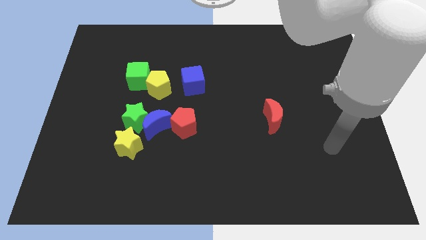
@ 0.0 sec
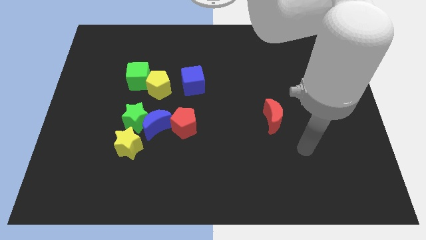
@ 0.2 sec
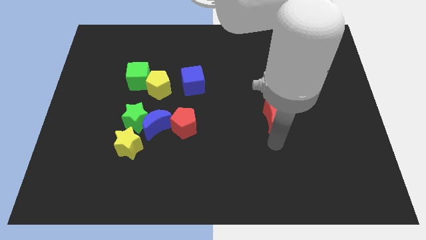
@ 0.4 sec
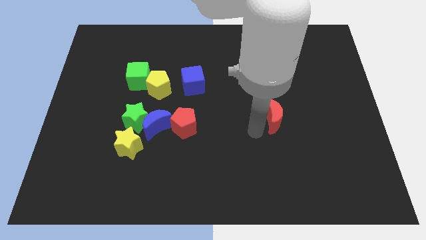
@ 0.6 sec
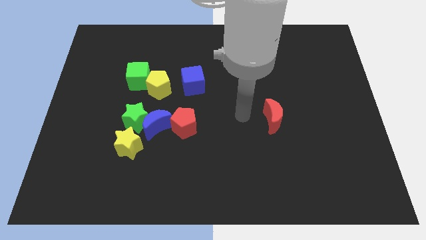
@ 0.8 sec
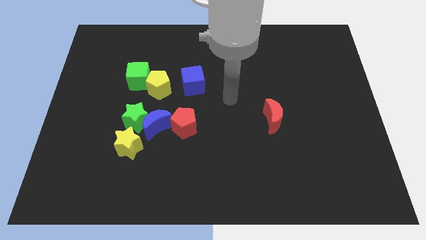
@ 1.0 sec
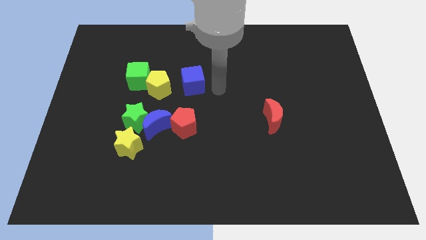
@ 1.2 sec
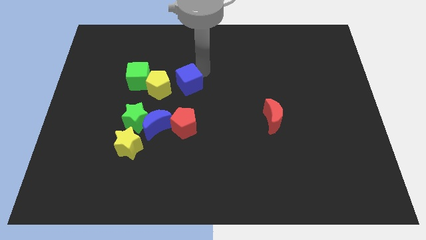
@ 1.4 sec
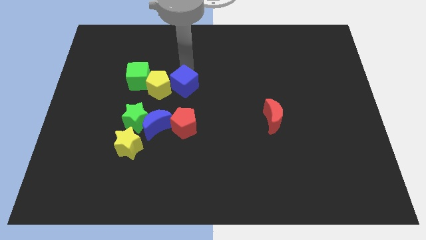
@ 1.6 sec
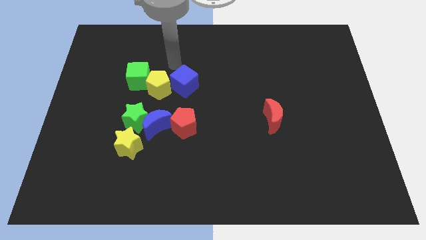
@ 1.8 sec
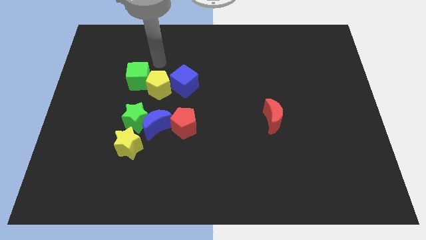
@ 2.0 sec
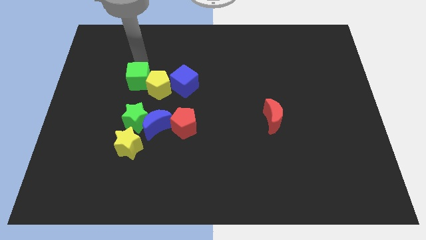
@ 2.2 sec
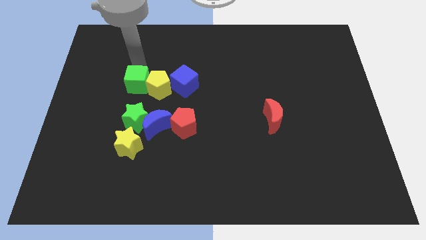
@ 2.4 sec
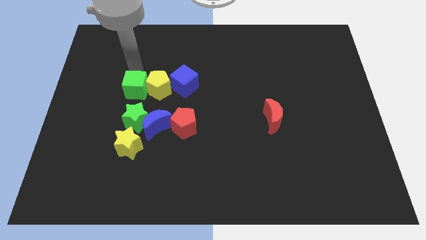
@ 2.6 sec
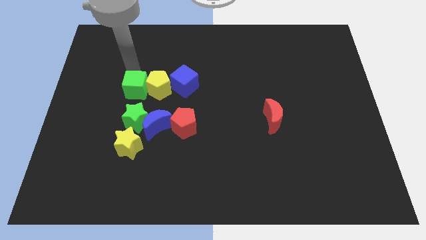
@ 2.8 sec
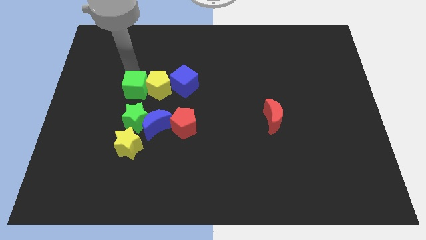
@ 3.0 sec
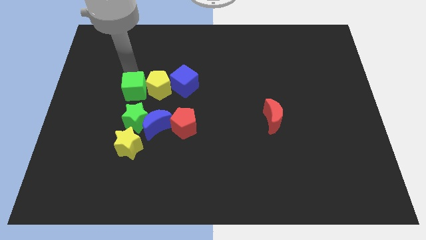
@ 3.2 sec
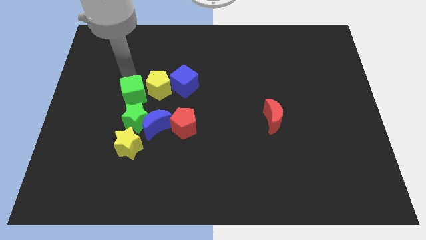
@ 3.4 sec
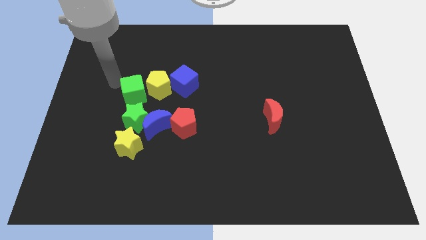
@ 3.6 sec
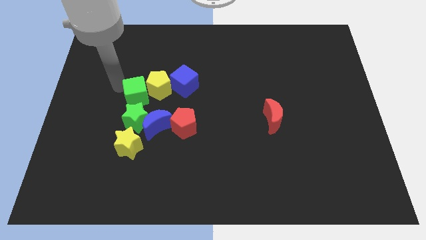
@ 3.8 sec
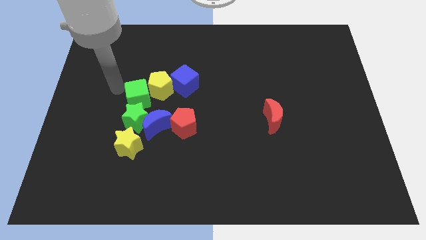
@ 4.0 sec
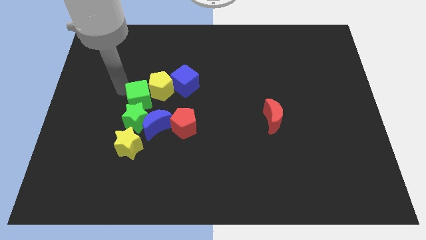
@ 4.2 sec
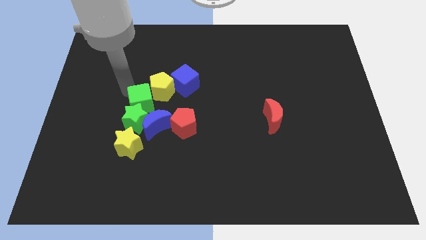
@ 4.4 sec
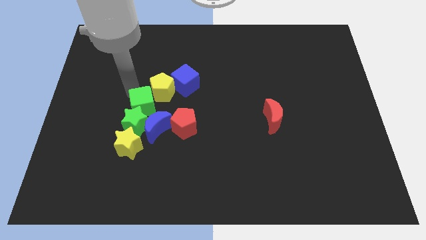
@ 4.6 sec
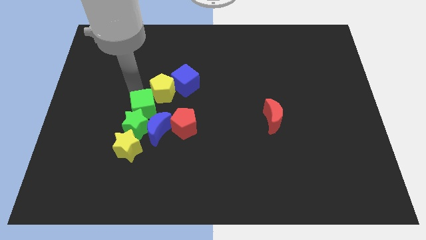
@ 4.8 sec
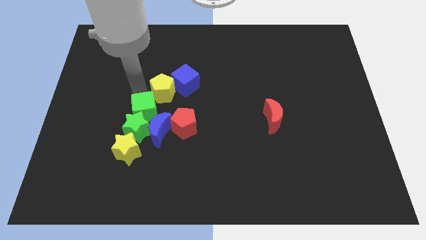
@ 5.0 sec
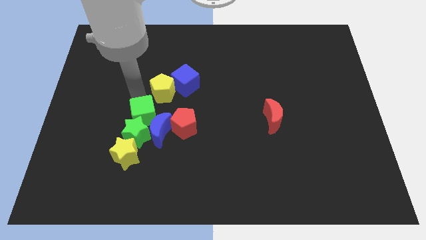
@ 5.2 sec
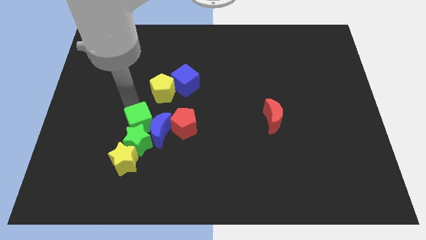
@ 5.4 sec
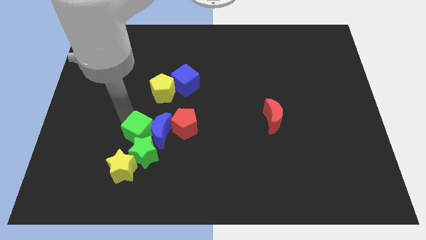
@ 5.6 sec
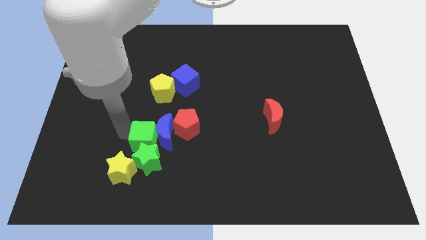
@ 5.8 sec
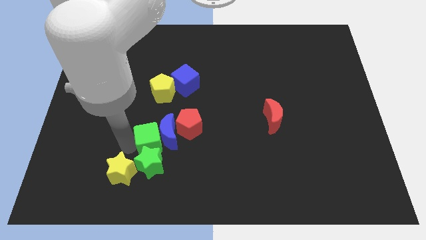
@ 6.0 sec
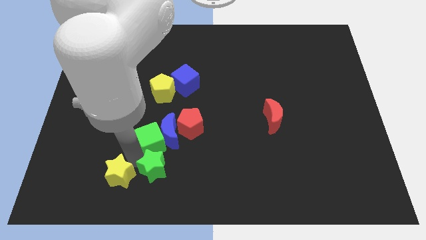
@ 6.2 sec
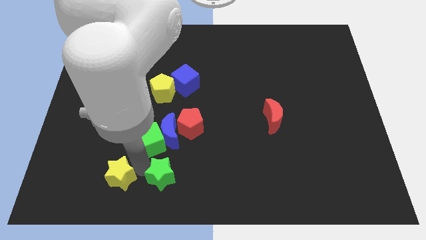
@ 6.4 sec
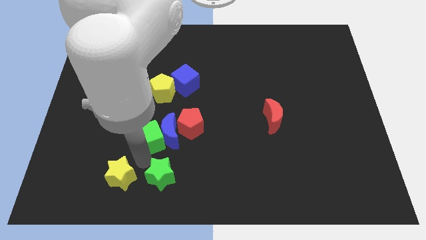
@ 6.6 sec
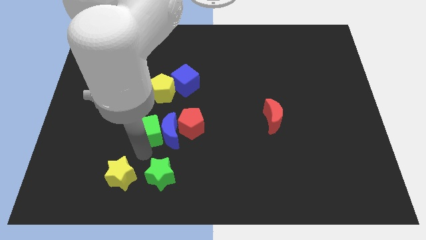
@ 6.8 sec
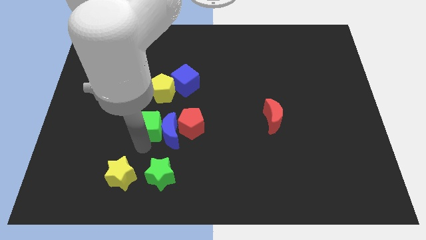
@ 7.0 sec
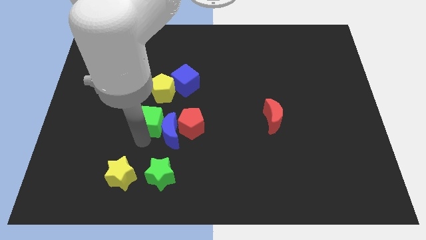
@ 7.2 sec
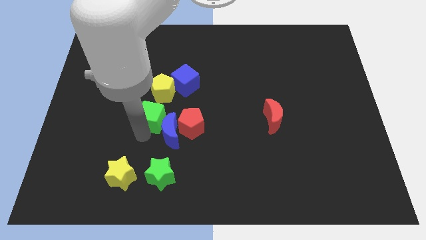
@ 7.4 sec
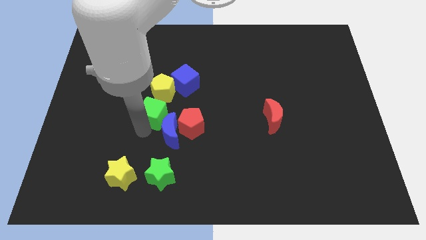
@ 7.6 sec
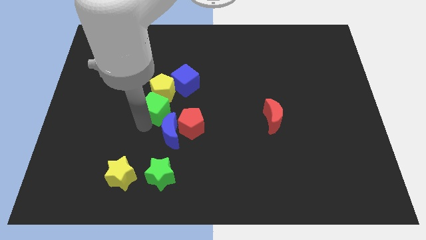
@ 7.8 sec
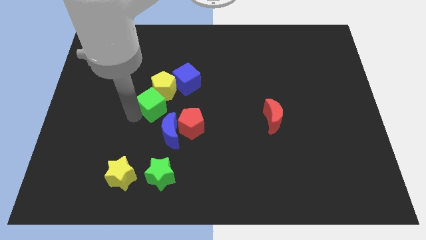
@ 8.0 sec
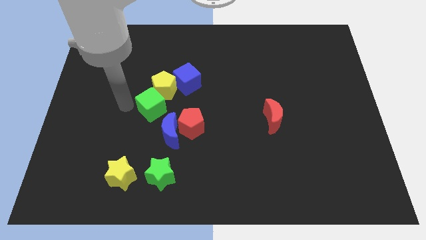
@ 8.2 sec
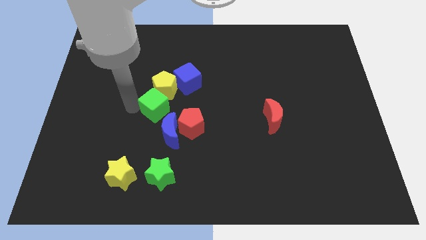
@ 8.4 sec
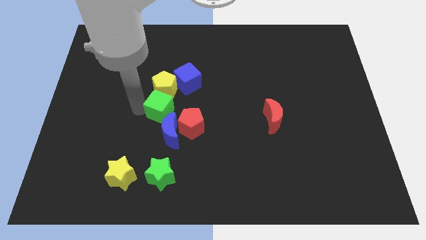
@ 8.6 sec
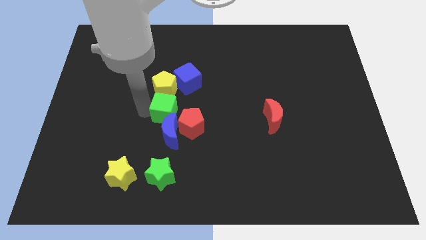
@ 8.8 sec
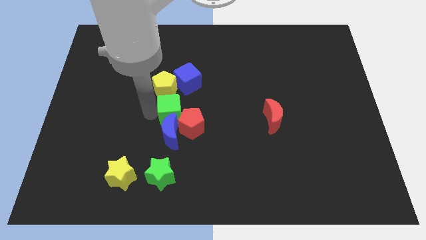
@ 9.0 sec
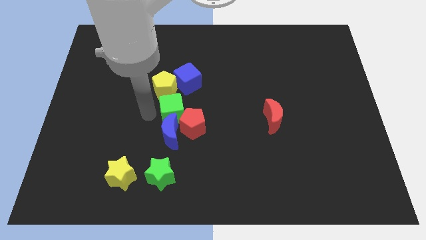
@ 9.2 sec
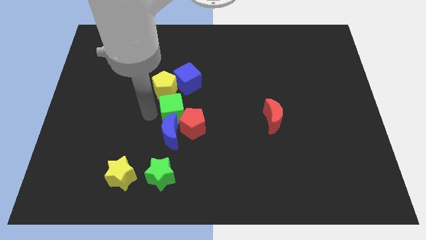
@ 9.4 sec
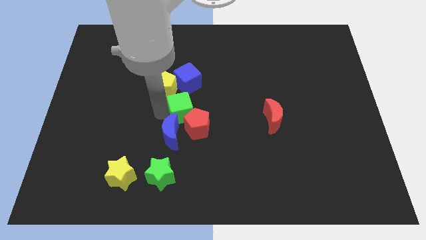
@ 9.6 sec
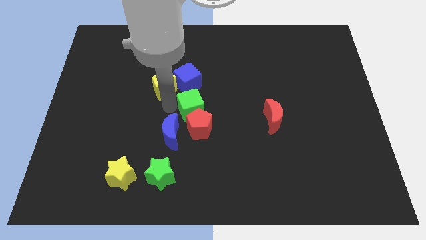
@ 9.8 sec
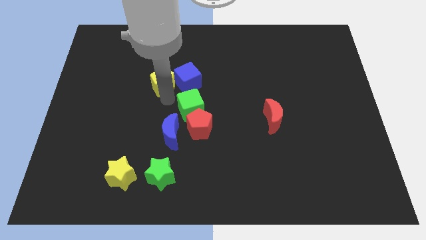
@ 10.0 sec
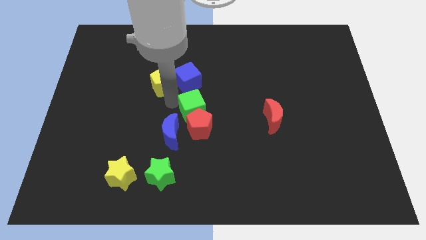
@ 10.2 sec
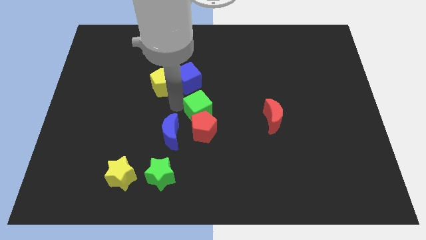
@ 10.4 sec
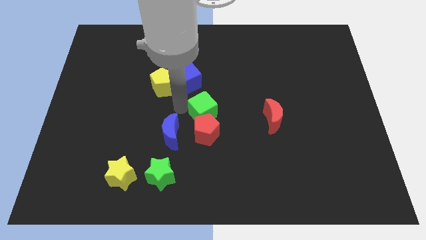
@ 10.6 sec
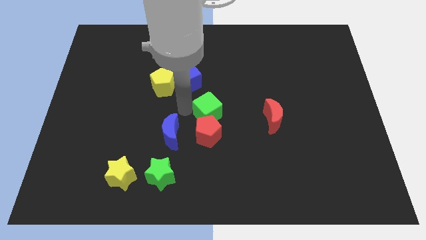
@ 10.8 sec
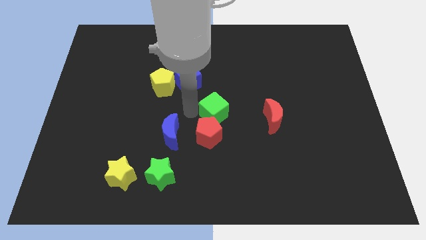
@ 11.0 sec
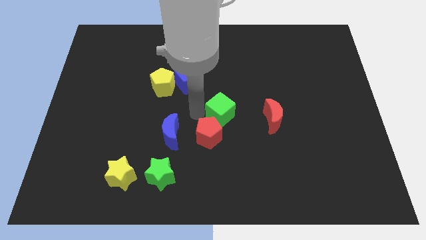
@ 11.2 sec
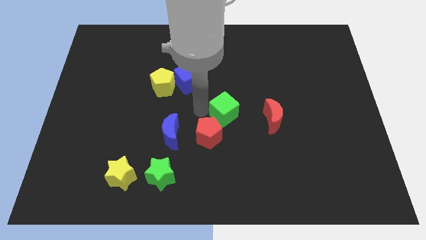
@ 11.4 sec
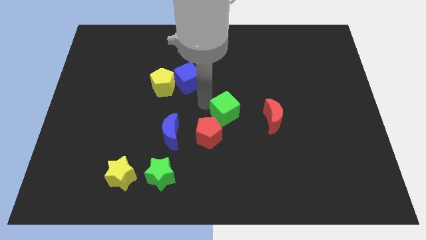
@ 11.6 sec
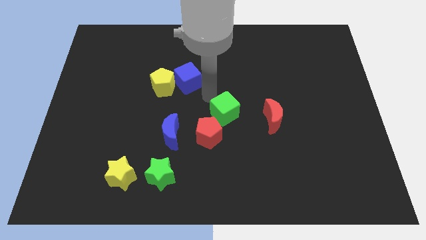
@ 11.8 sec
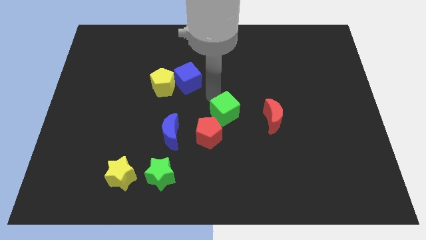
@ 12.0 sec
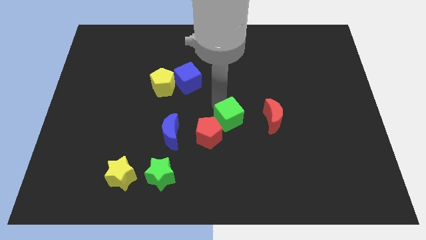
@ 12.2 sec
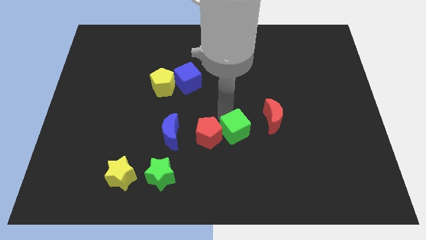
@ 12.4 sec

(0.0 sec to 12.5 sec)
move the green cube to the bottom left of the red moon

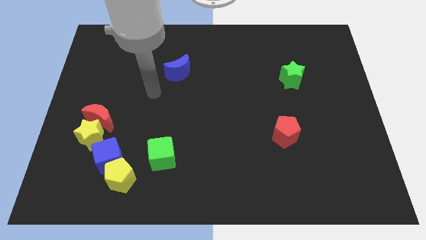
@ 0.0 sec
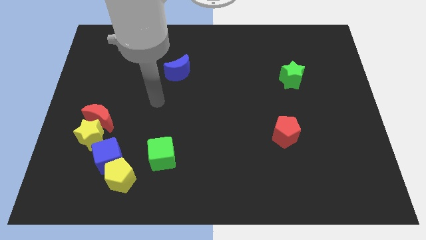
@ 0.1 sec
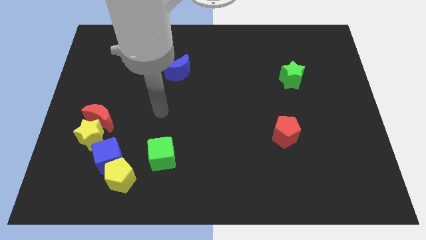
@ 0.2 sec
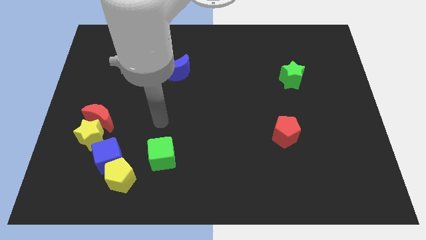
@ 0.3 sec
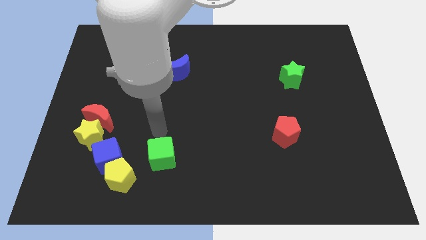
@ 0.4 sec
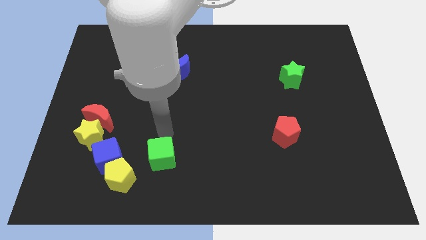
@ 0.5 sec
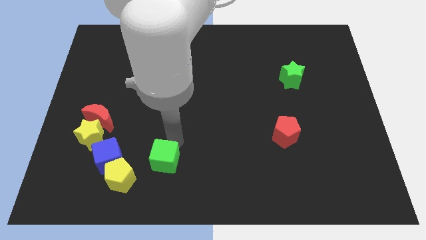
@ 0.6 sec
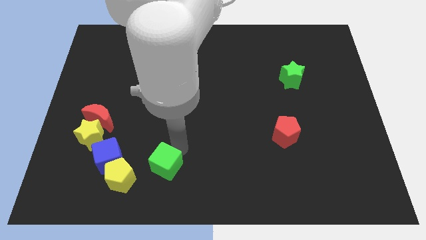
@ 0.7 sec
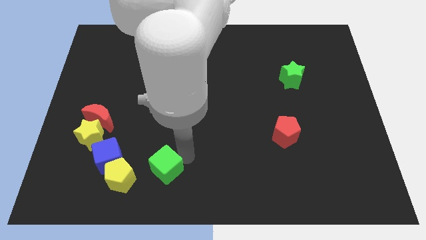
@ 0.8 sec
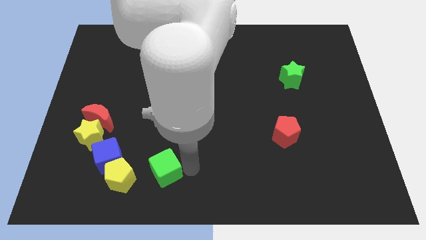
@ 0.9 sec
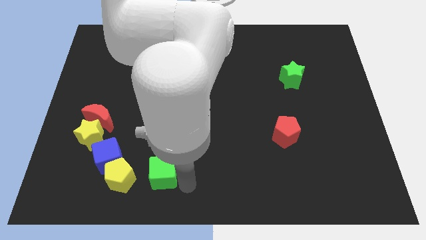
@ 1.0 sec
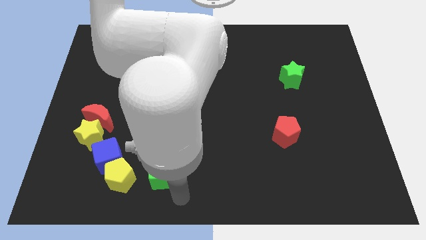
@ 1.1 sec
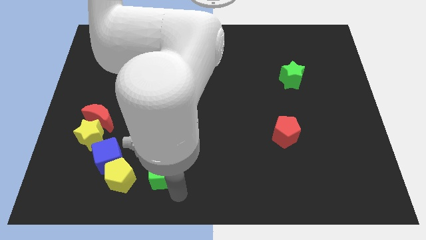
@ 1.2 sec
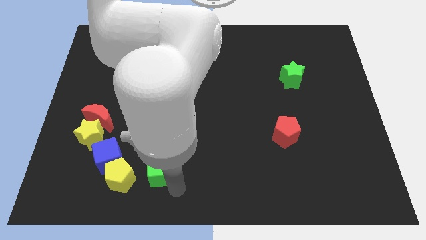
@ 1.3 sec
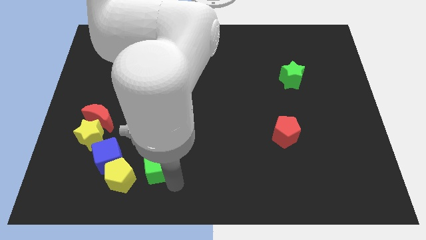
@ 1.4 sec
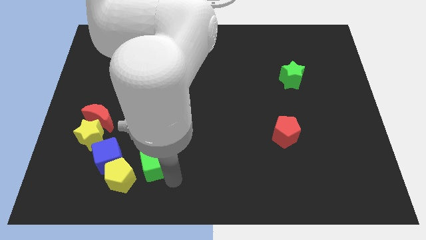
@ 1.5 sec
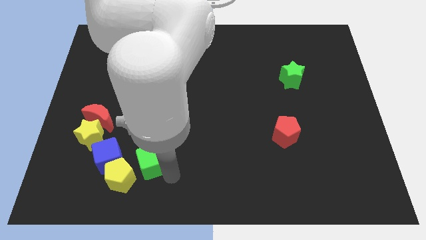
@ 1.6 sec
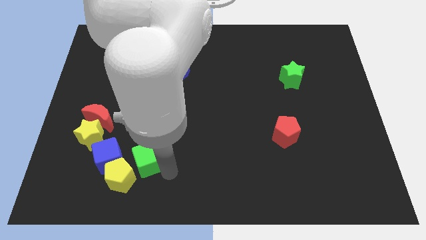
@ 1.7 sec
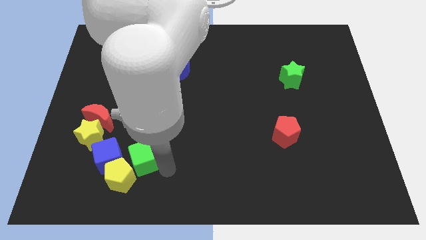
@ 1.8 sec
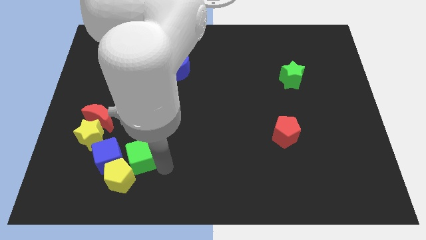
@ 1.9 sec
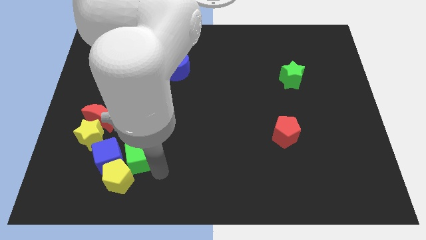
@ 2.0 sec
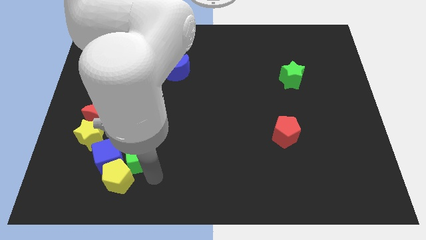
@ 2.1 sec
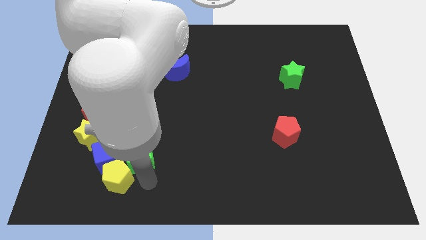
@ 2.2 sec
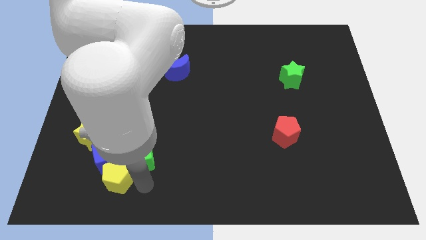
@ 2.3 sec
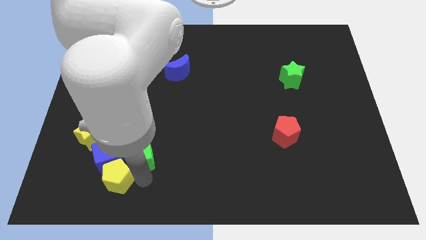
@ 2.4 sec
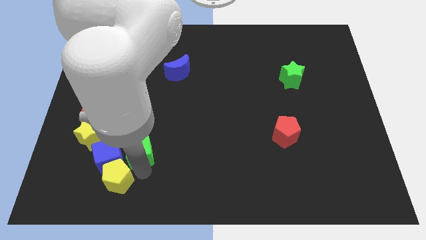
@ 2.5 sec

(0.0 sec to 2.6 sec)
put the green cube to the right of the yellow star
